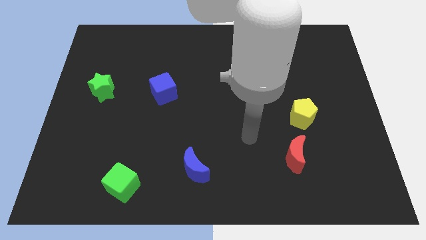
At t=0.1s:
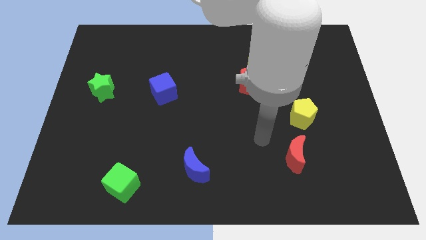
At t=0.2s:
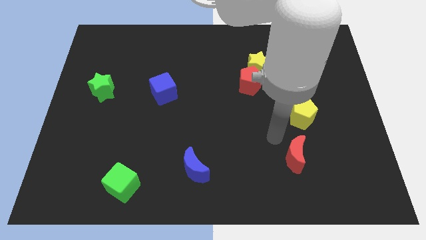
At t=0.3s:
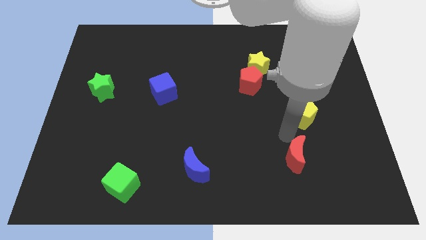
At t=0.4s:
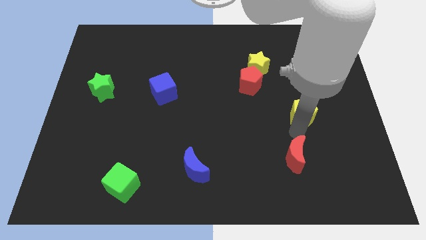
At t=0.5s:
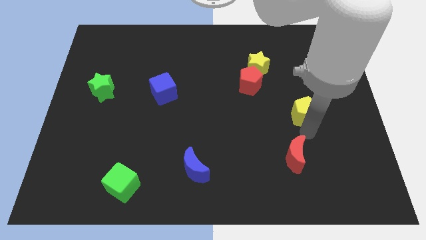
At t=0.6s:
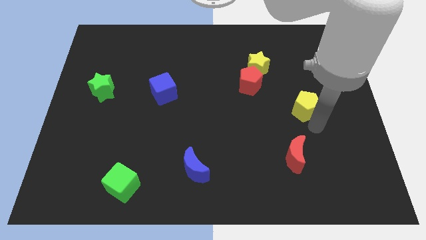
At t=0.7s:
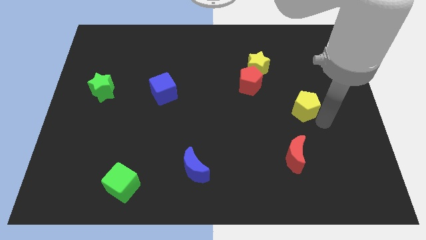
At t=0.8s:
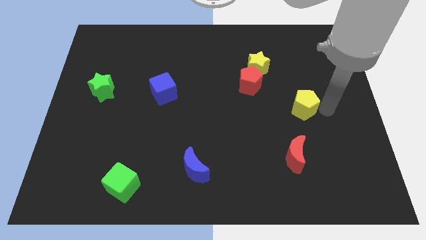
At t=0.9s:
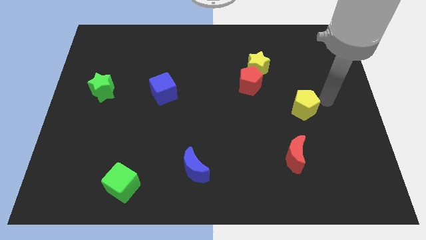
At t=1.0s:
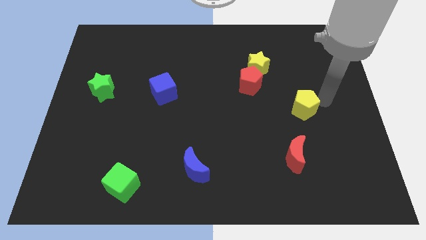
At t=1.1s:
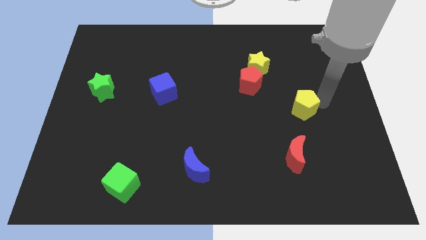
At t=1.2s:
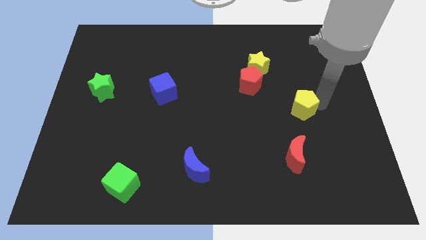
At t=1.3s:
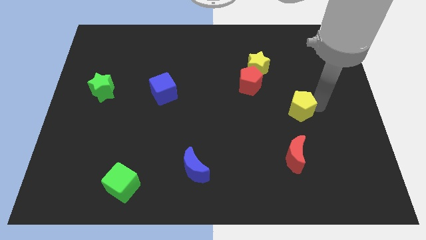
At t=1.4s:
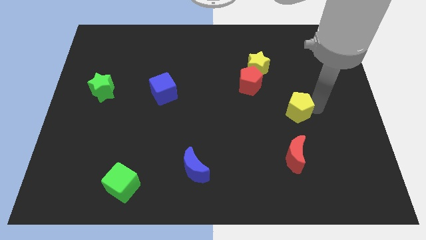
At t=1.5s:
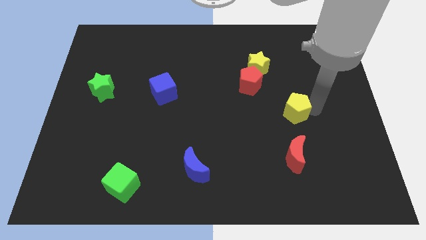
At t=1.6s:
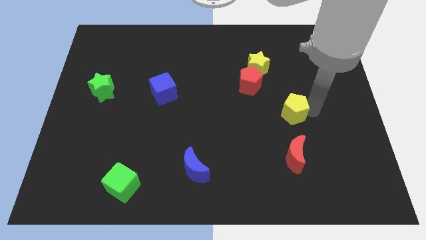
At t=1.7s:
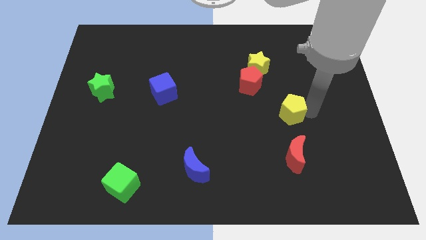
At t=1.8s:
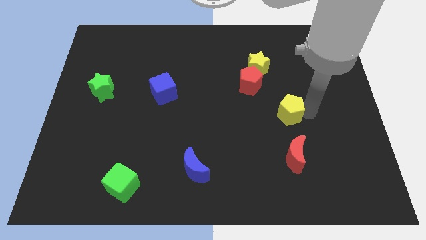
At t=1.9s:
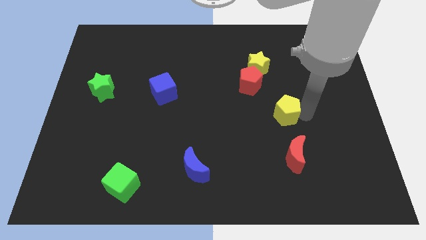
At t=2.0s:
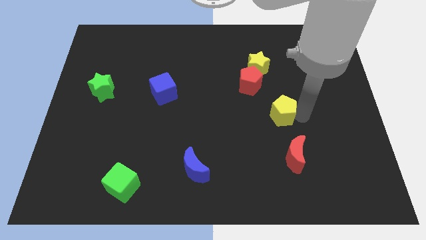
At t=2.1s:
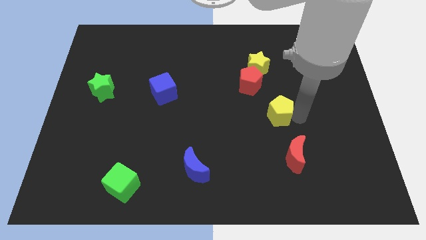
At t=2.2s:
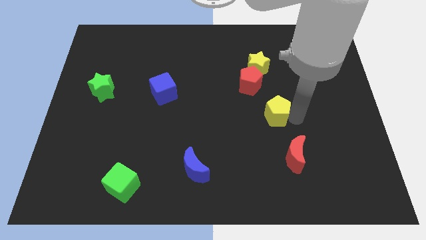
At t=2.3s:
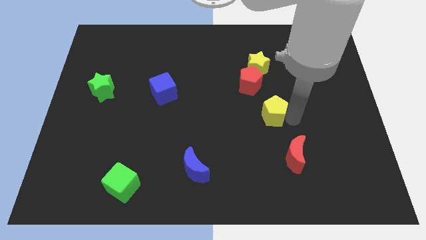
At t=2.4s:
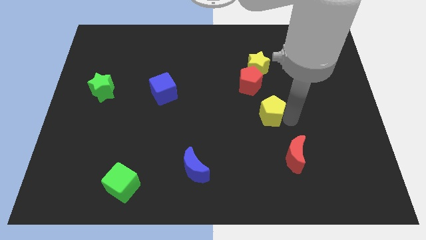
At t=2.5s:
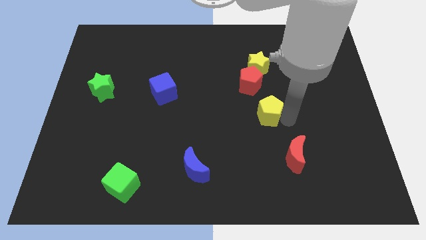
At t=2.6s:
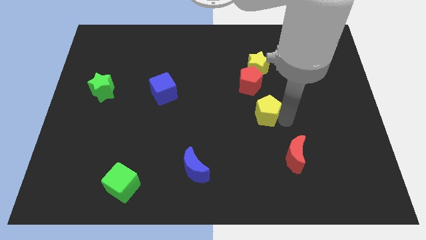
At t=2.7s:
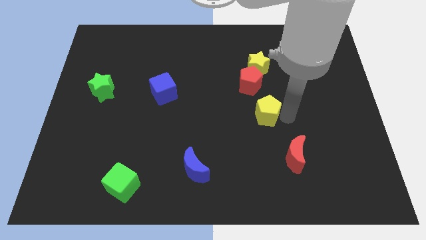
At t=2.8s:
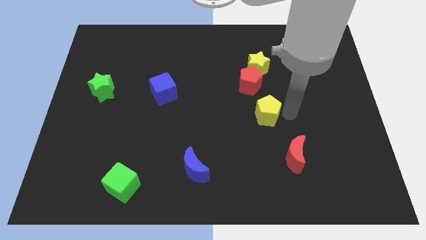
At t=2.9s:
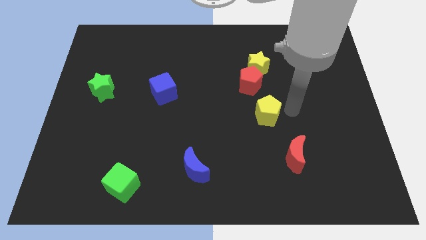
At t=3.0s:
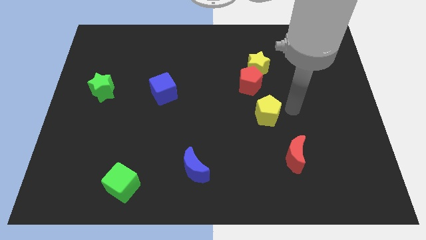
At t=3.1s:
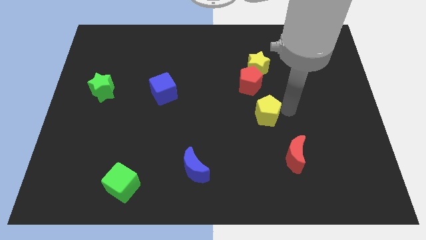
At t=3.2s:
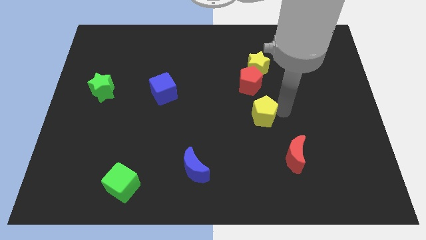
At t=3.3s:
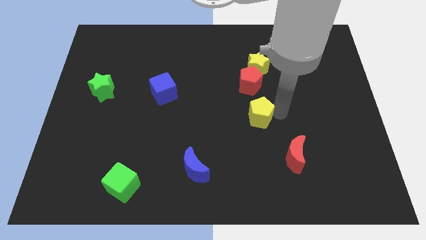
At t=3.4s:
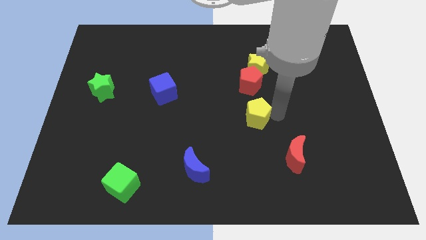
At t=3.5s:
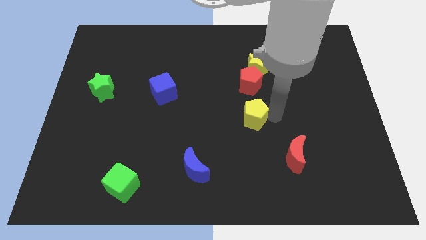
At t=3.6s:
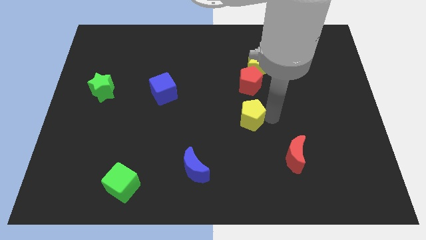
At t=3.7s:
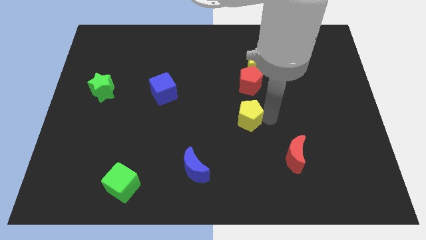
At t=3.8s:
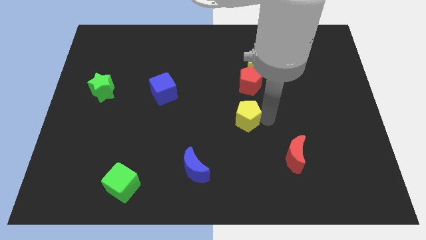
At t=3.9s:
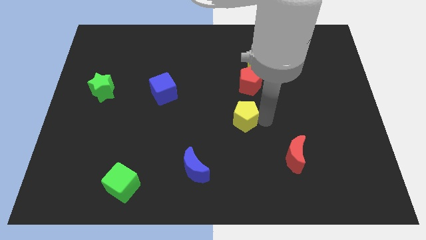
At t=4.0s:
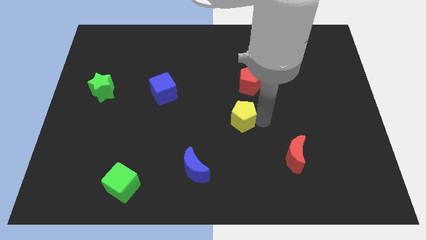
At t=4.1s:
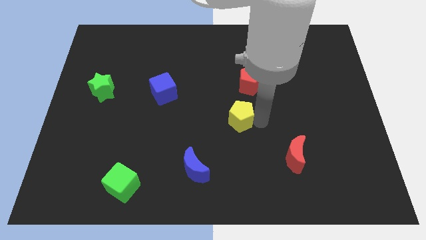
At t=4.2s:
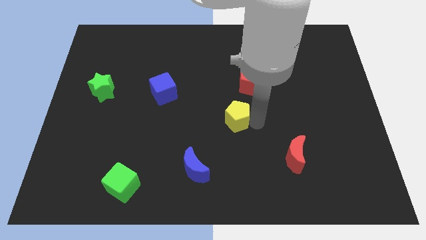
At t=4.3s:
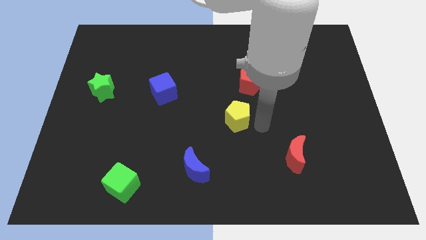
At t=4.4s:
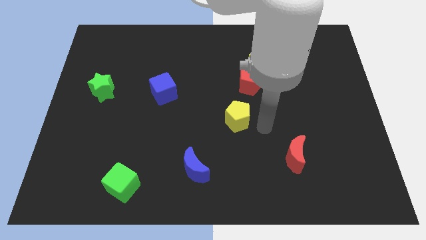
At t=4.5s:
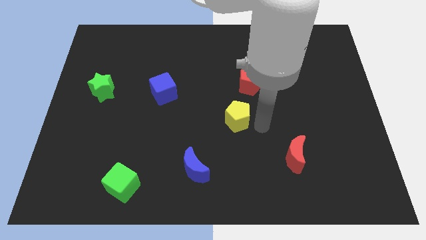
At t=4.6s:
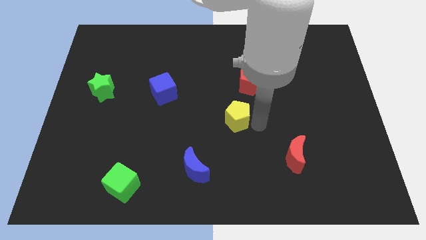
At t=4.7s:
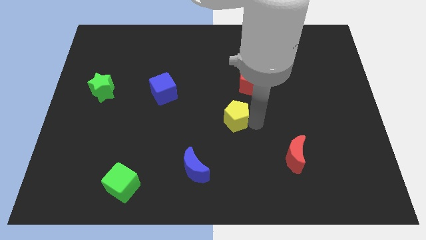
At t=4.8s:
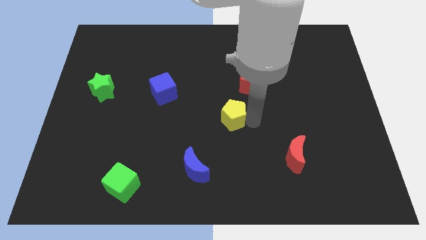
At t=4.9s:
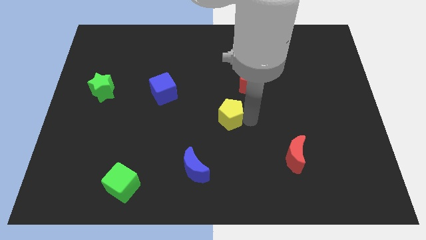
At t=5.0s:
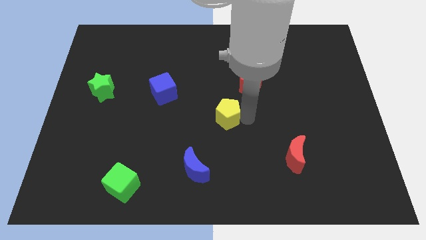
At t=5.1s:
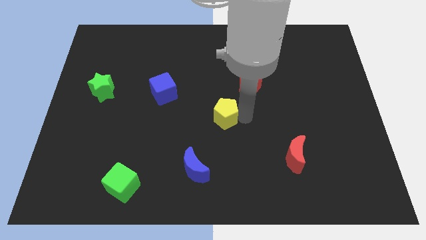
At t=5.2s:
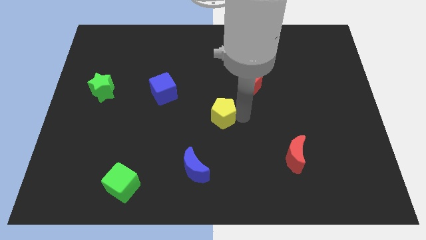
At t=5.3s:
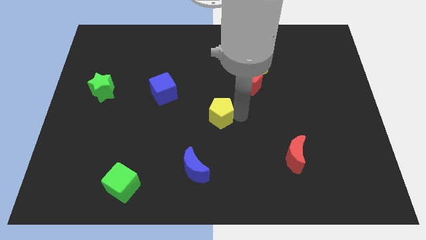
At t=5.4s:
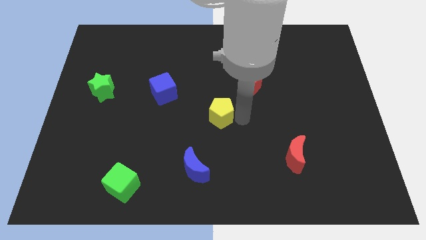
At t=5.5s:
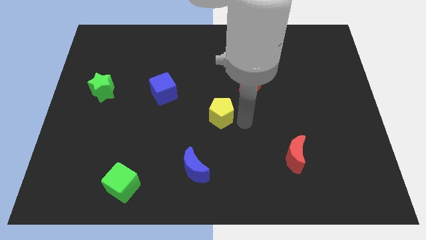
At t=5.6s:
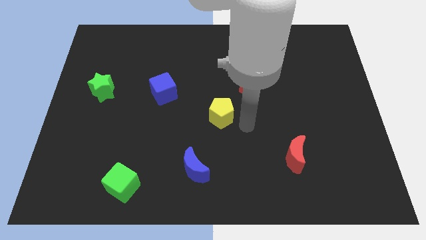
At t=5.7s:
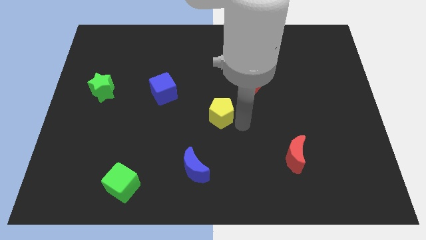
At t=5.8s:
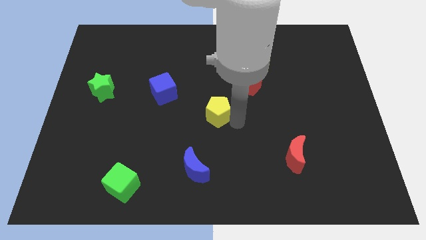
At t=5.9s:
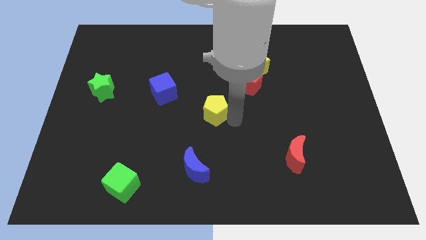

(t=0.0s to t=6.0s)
slide the yellow pentagon left

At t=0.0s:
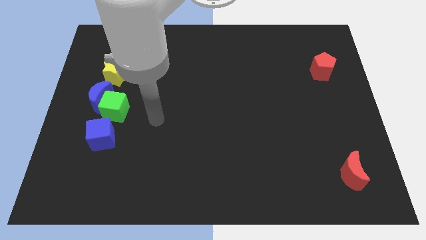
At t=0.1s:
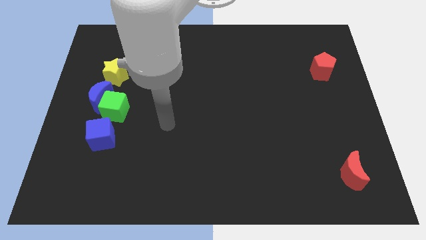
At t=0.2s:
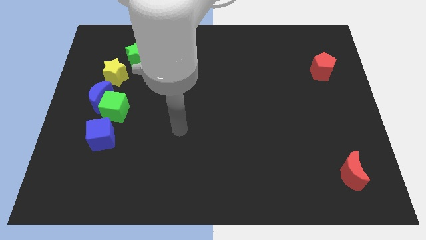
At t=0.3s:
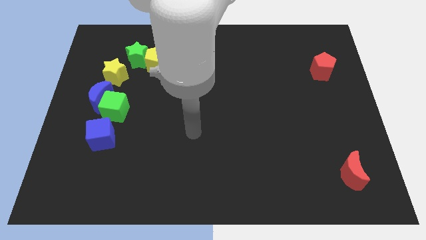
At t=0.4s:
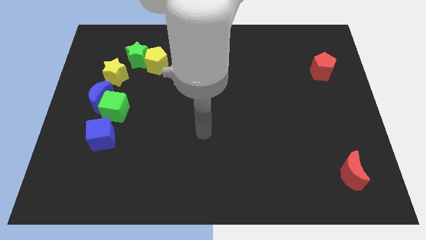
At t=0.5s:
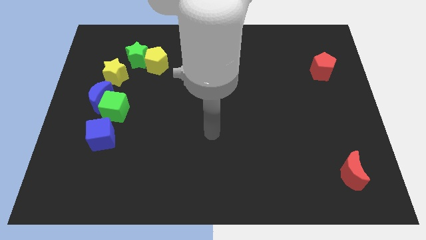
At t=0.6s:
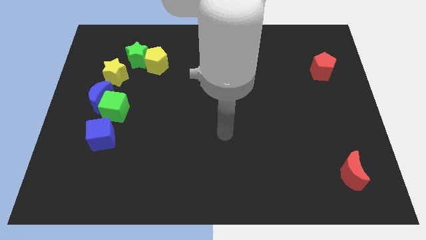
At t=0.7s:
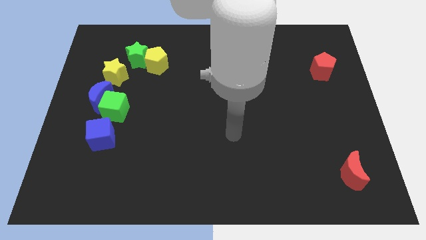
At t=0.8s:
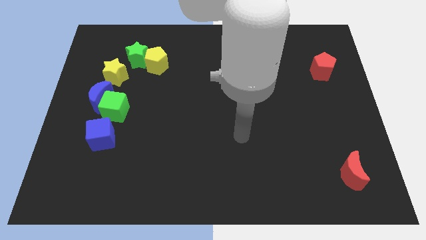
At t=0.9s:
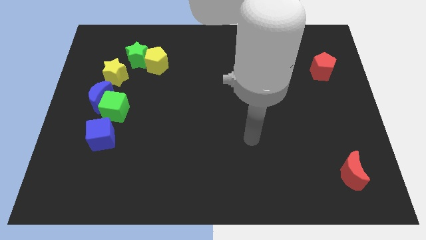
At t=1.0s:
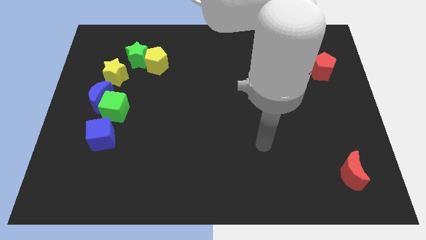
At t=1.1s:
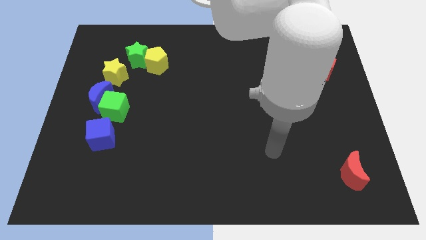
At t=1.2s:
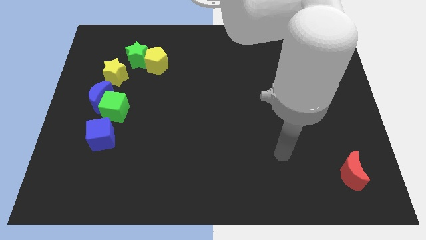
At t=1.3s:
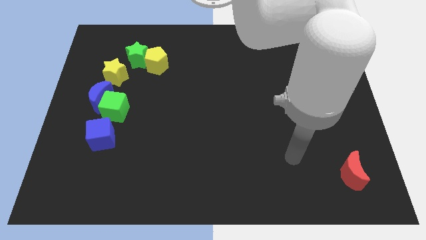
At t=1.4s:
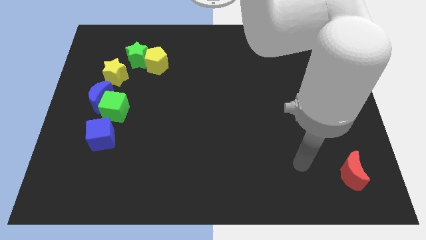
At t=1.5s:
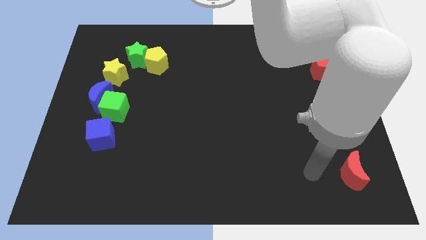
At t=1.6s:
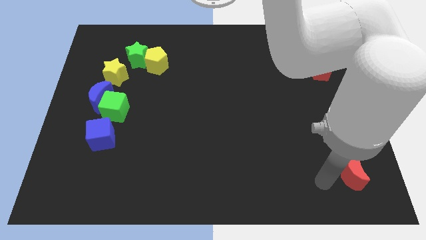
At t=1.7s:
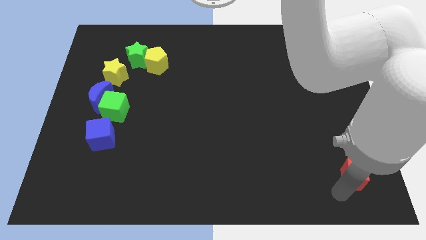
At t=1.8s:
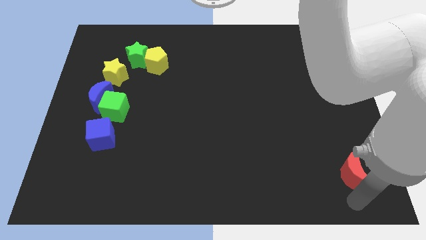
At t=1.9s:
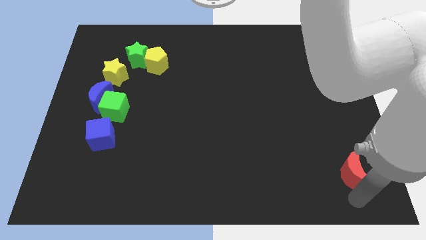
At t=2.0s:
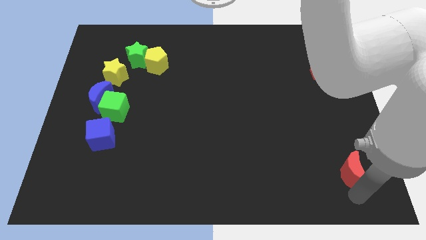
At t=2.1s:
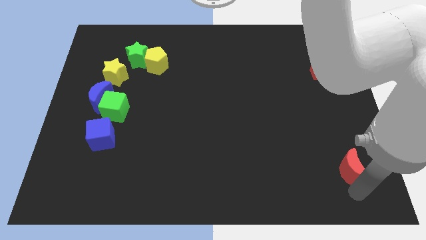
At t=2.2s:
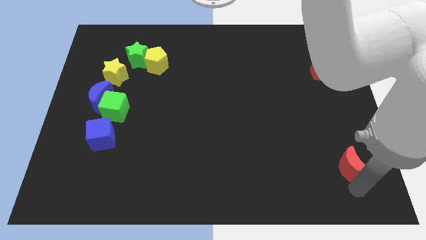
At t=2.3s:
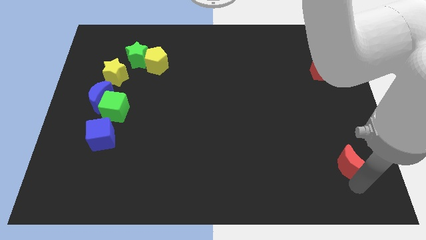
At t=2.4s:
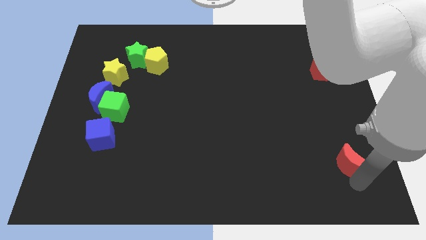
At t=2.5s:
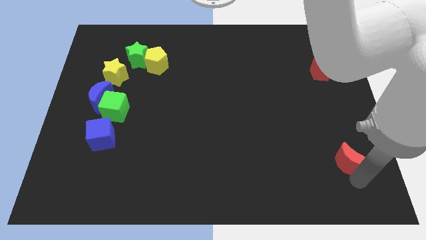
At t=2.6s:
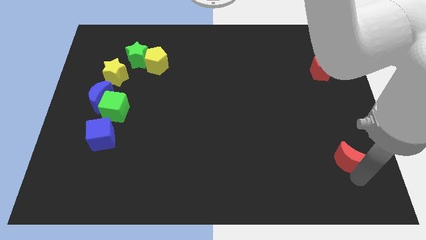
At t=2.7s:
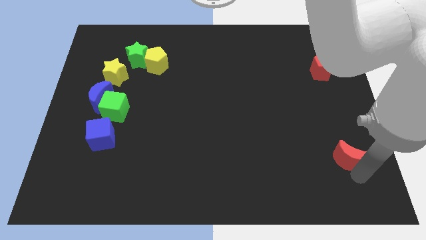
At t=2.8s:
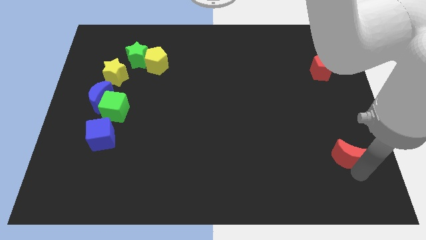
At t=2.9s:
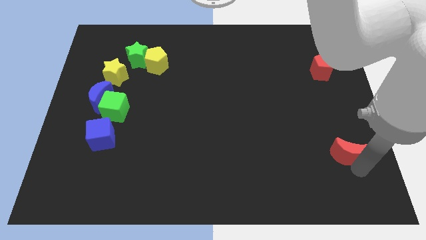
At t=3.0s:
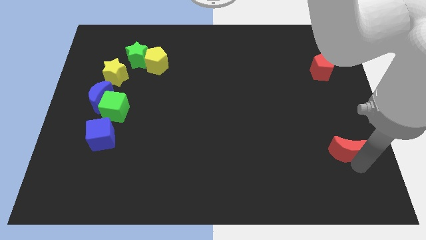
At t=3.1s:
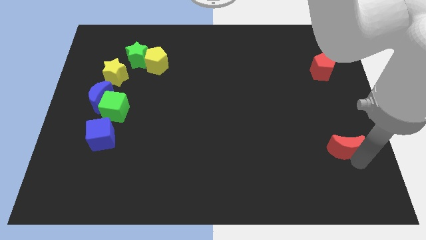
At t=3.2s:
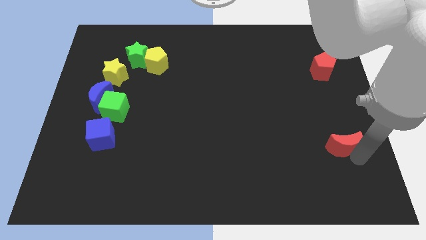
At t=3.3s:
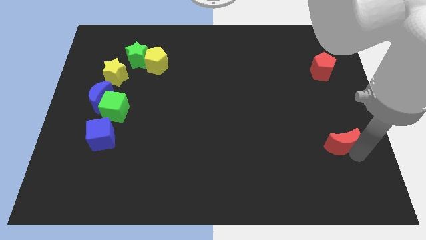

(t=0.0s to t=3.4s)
slide the red moon up a bit
